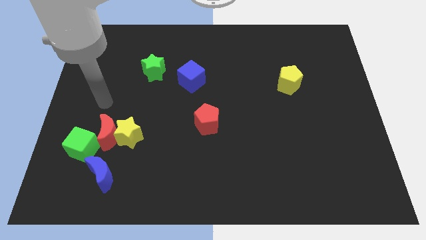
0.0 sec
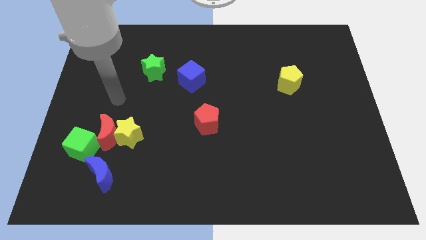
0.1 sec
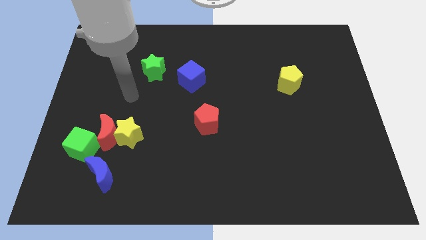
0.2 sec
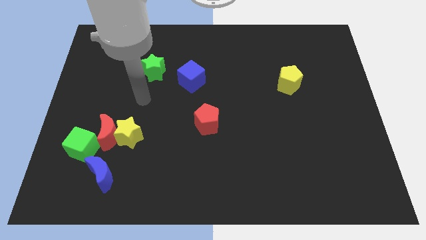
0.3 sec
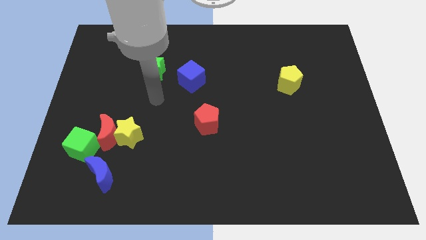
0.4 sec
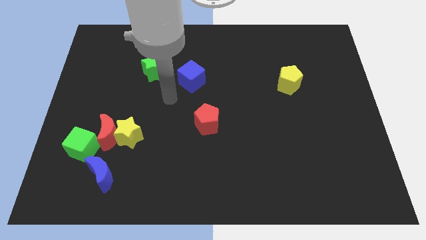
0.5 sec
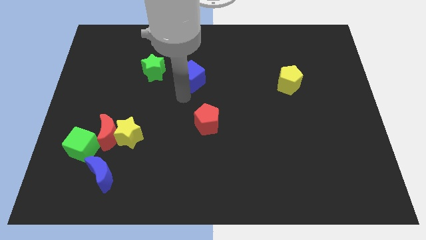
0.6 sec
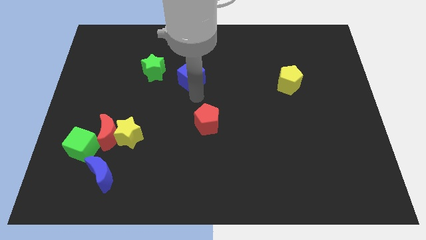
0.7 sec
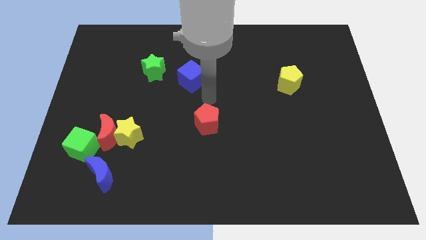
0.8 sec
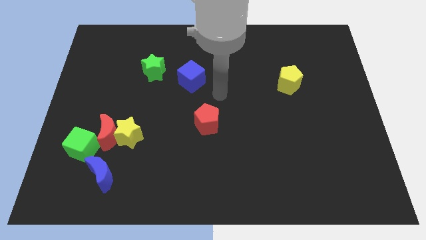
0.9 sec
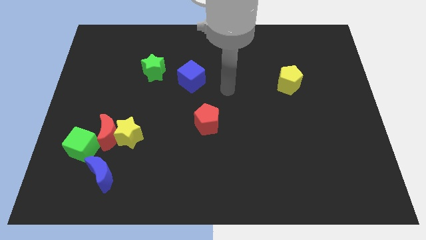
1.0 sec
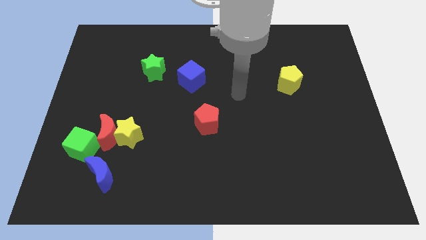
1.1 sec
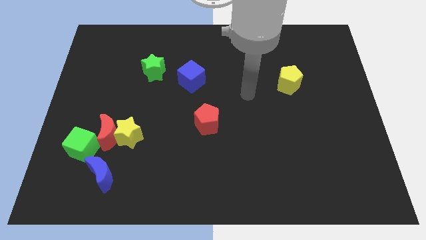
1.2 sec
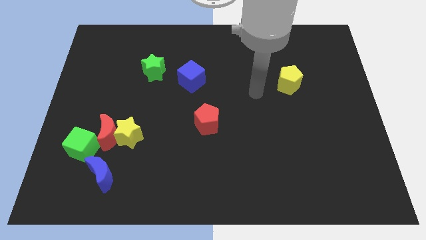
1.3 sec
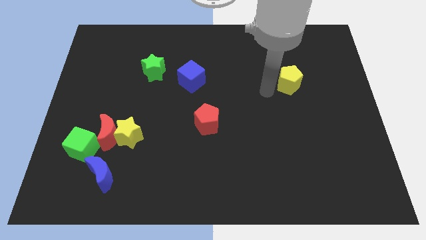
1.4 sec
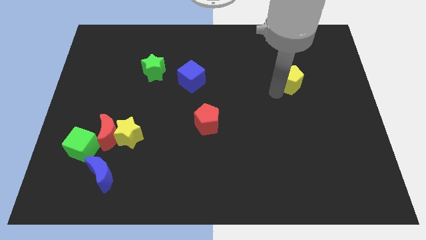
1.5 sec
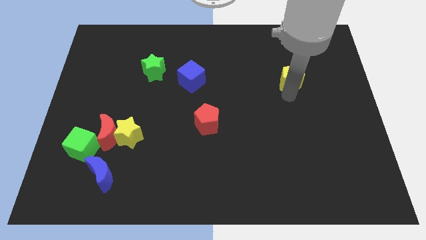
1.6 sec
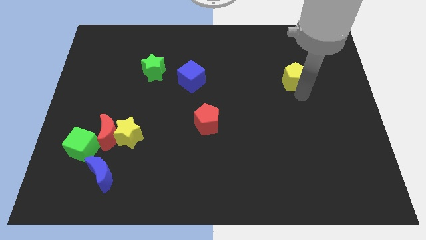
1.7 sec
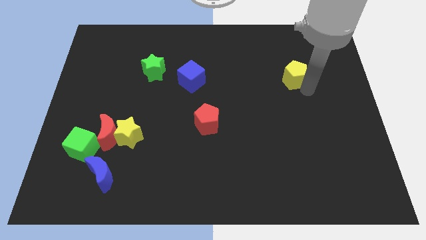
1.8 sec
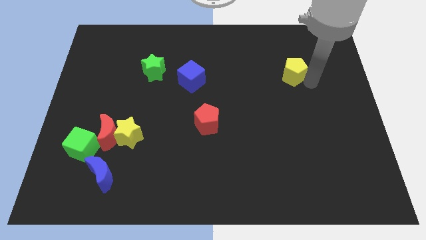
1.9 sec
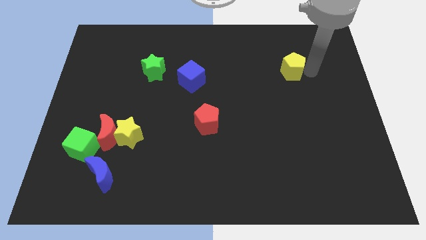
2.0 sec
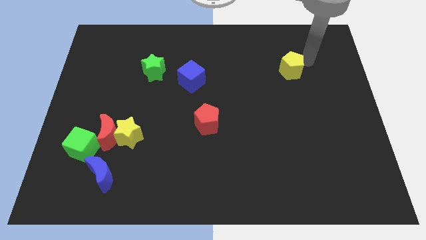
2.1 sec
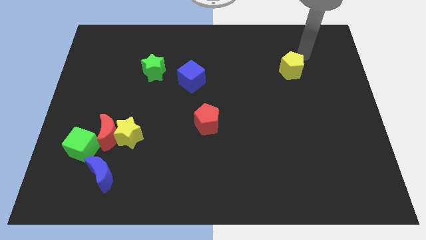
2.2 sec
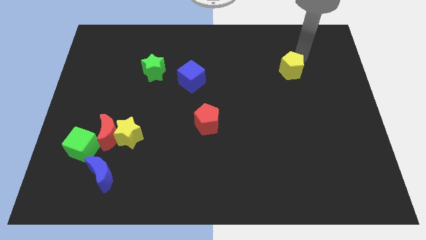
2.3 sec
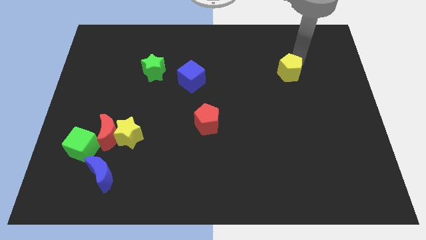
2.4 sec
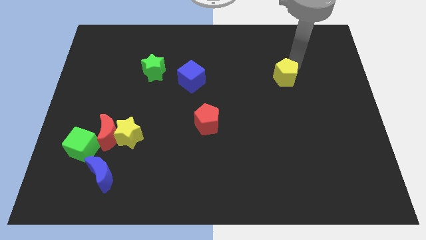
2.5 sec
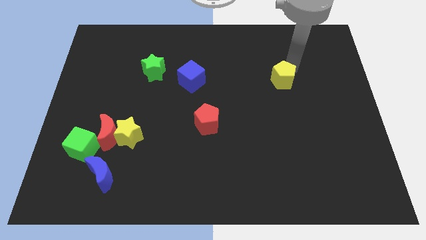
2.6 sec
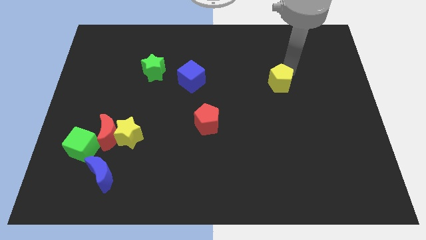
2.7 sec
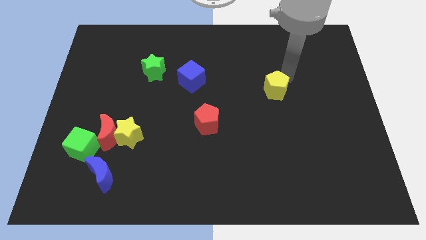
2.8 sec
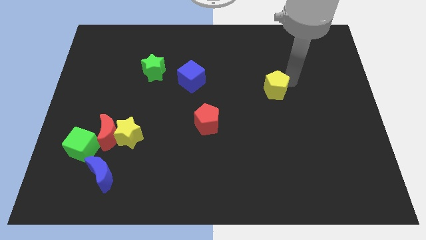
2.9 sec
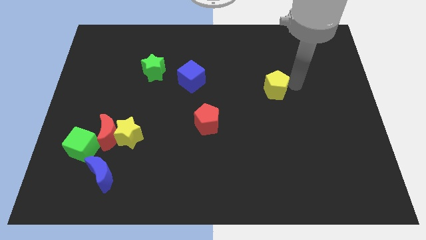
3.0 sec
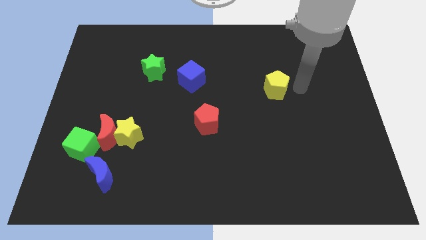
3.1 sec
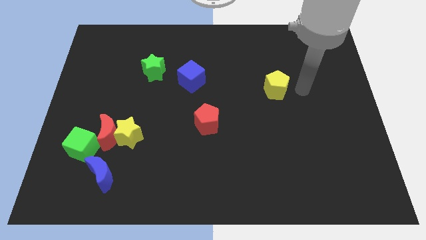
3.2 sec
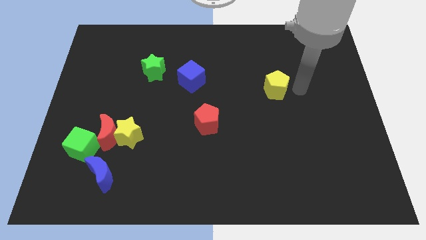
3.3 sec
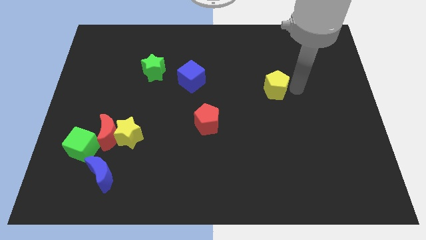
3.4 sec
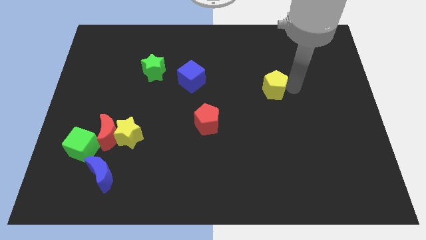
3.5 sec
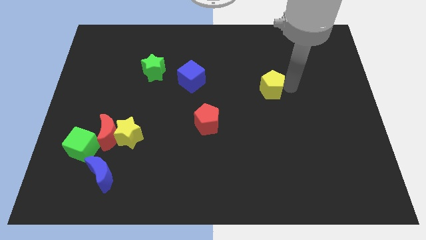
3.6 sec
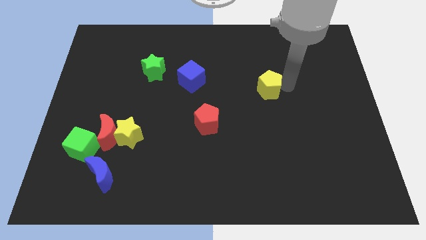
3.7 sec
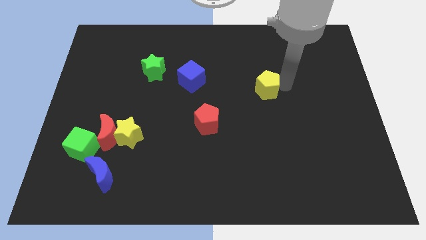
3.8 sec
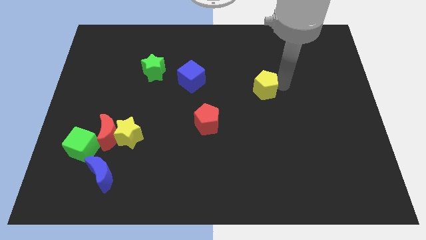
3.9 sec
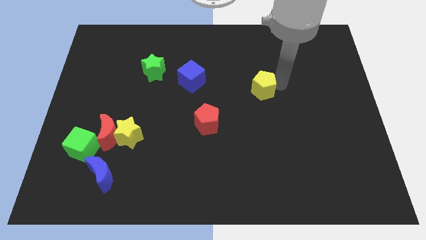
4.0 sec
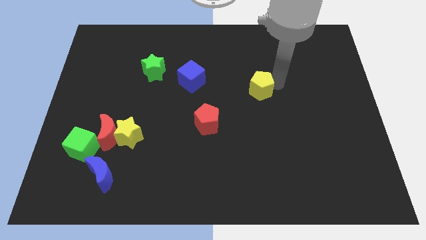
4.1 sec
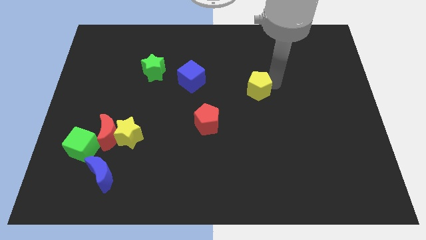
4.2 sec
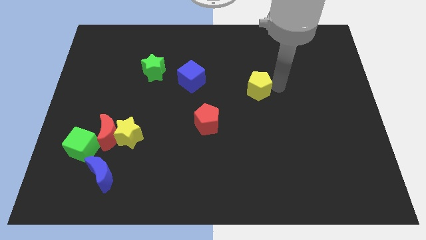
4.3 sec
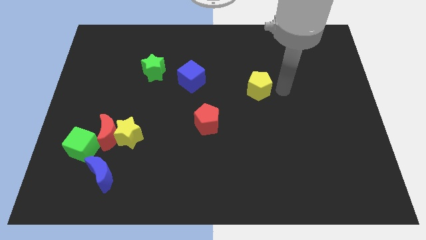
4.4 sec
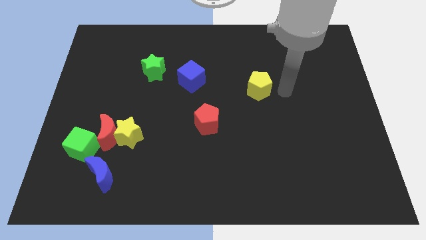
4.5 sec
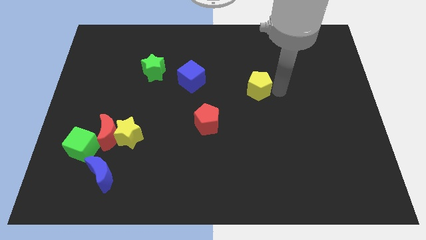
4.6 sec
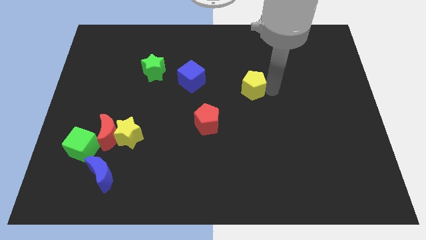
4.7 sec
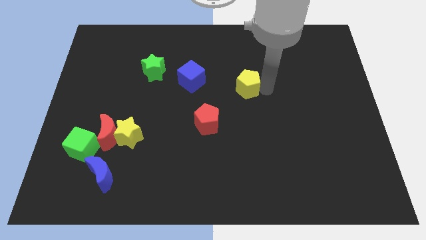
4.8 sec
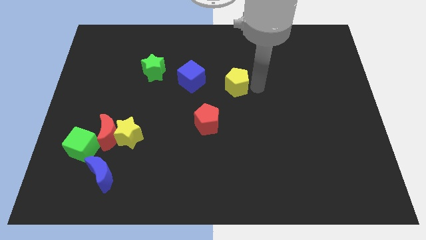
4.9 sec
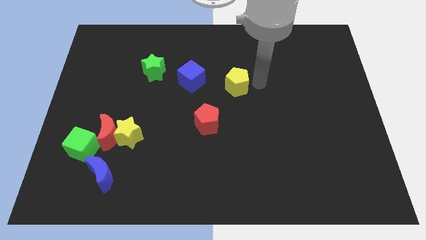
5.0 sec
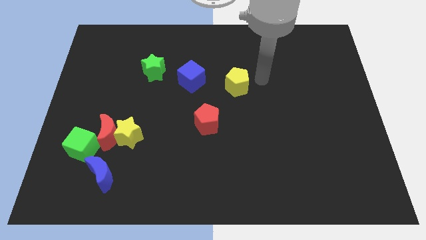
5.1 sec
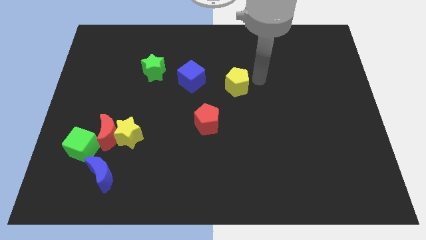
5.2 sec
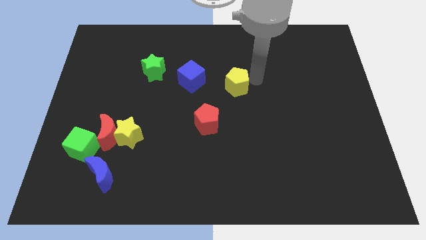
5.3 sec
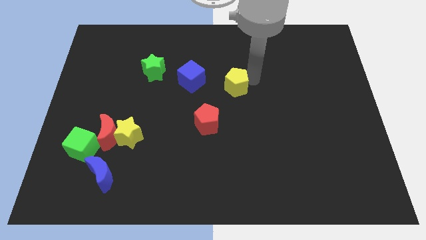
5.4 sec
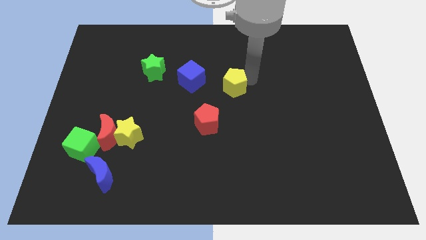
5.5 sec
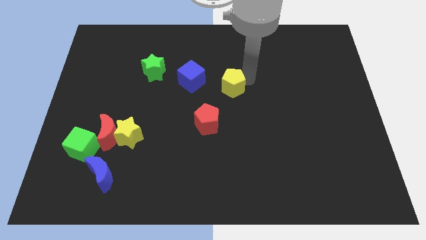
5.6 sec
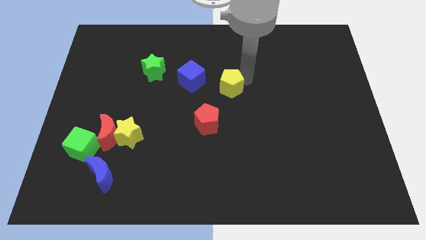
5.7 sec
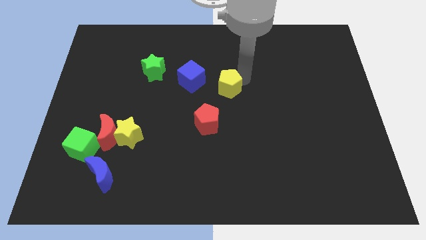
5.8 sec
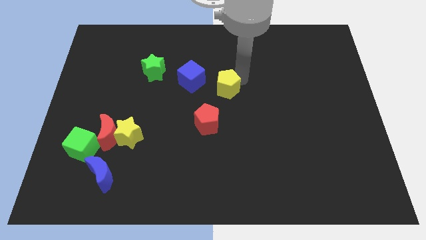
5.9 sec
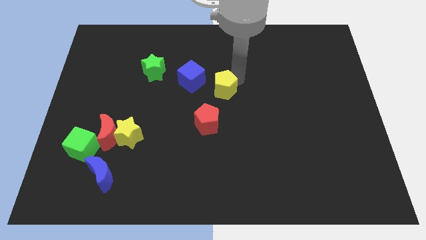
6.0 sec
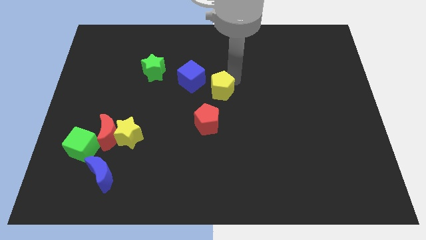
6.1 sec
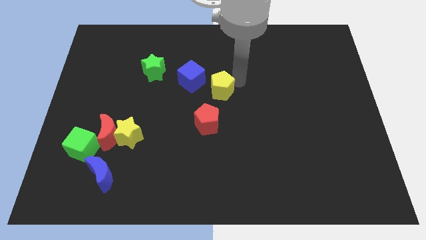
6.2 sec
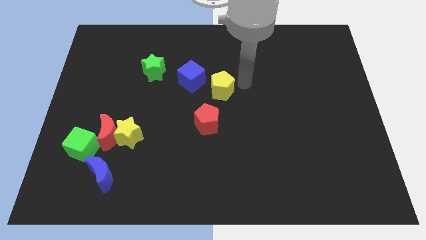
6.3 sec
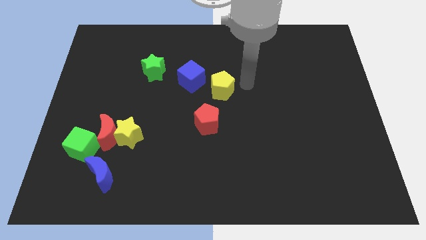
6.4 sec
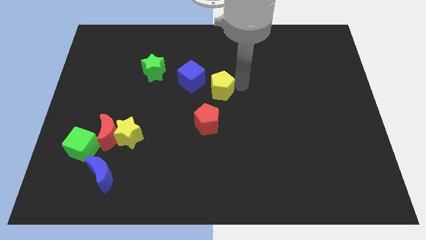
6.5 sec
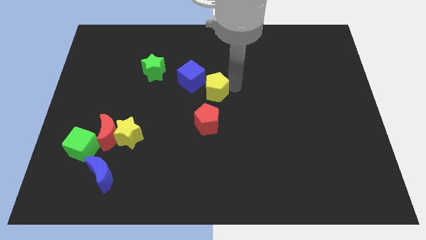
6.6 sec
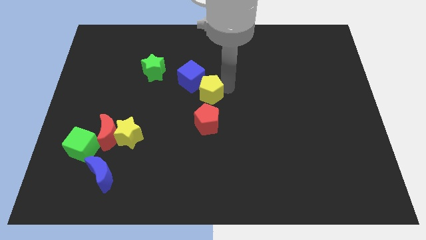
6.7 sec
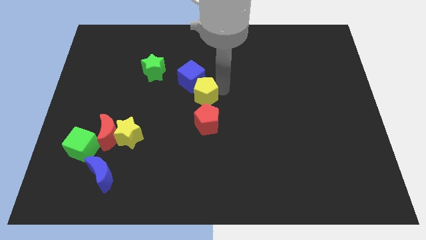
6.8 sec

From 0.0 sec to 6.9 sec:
move the yellow pentagon left

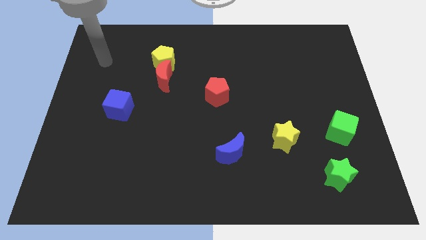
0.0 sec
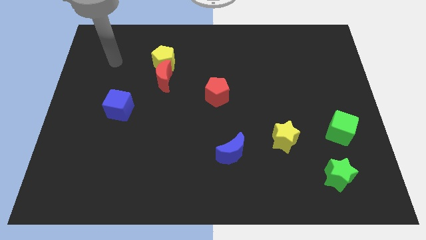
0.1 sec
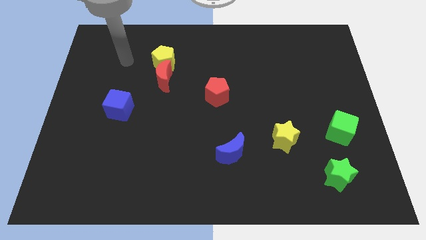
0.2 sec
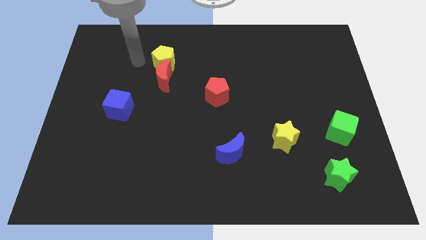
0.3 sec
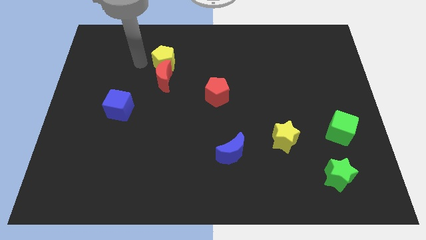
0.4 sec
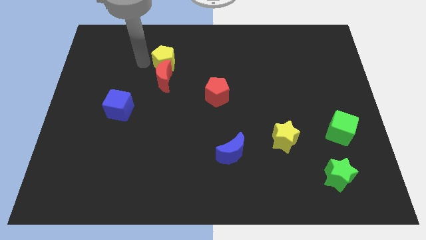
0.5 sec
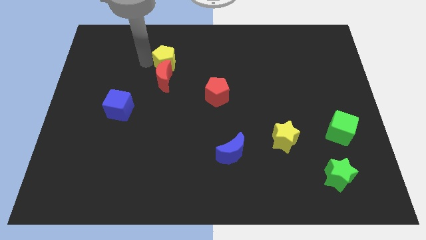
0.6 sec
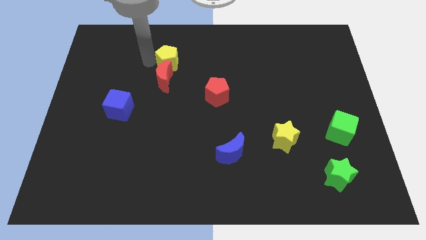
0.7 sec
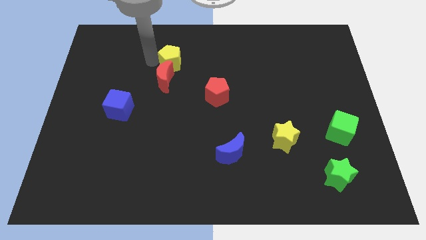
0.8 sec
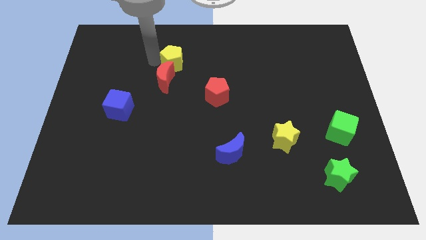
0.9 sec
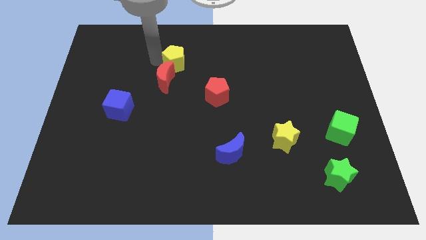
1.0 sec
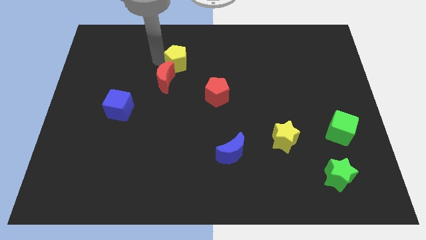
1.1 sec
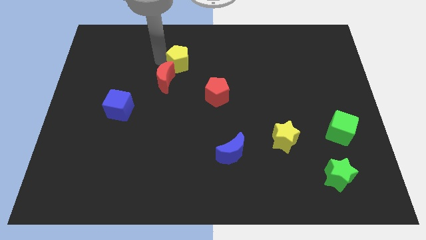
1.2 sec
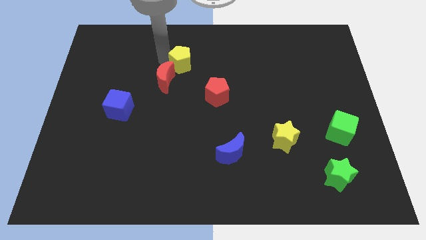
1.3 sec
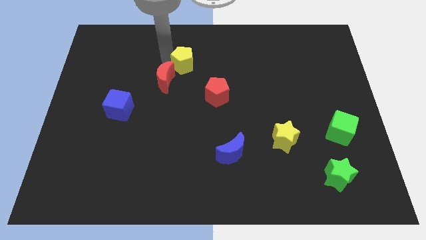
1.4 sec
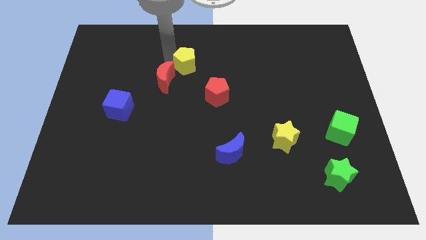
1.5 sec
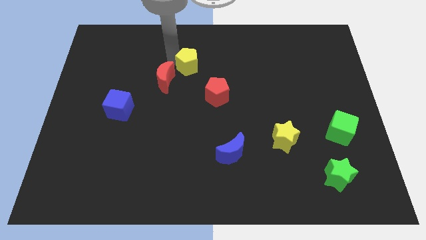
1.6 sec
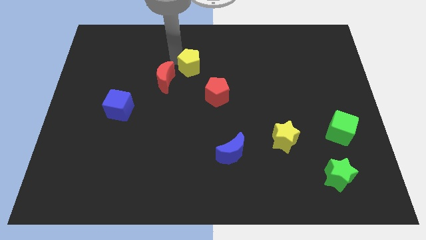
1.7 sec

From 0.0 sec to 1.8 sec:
slightly move the yellow pentagon right
